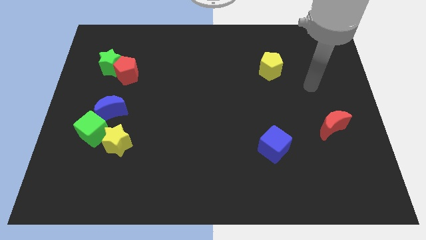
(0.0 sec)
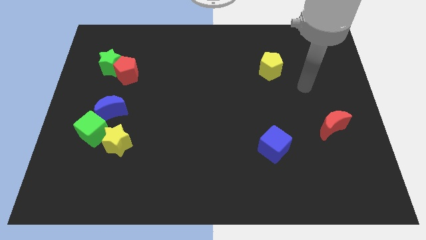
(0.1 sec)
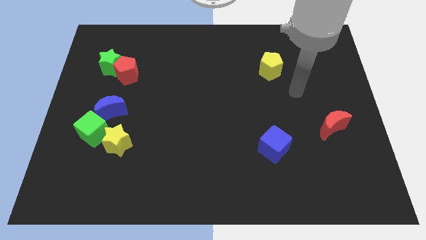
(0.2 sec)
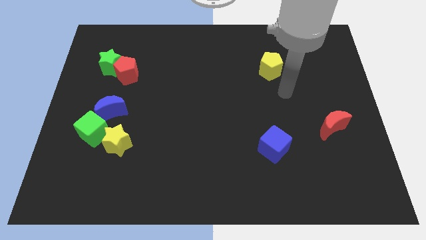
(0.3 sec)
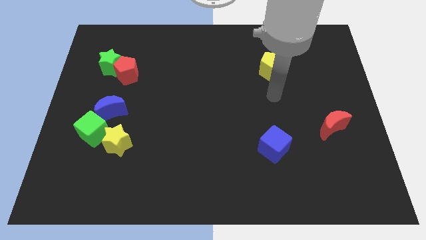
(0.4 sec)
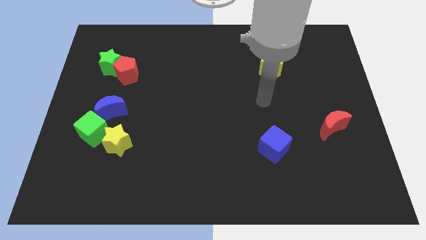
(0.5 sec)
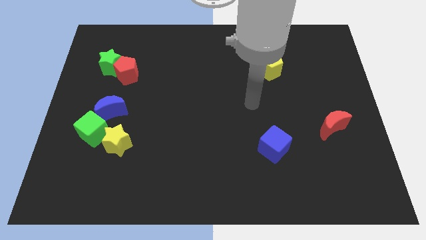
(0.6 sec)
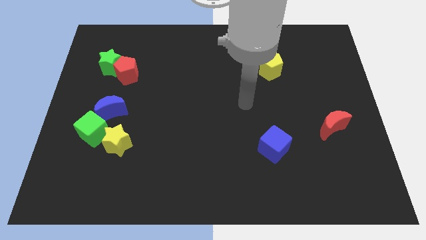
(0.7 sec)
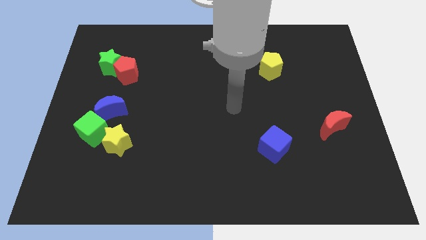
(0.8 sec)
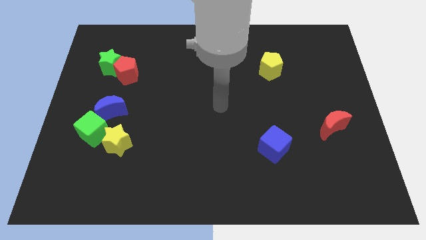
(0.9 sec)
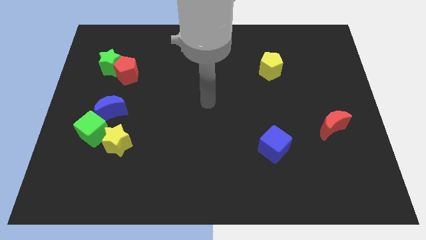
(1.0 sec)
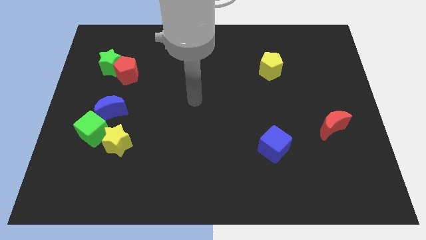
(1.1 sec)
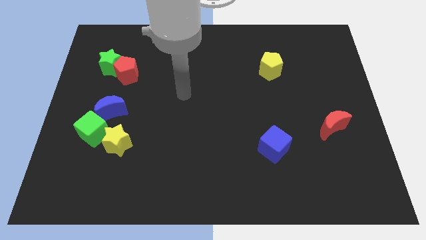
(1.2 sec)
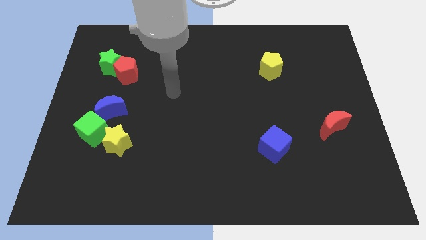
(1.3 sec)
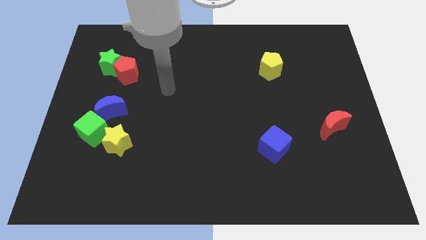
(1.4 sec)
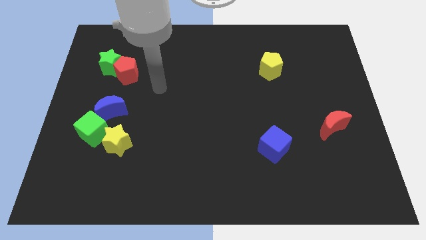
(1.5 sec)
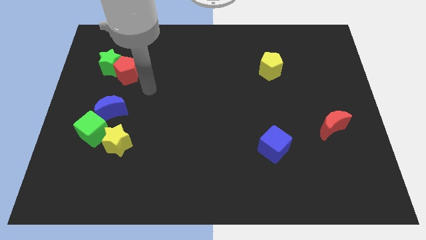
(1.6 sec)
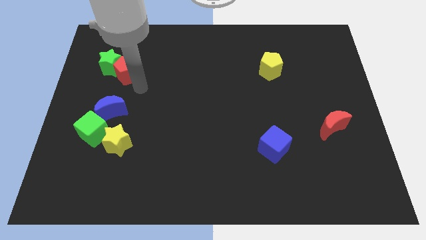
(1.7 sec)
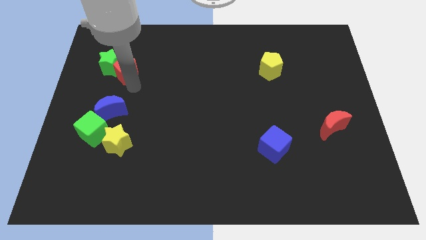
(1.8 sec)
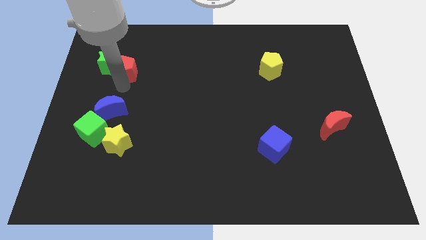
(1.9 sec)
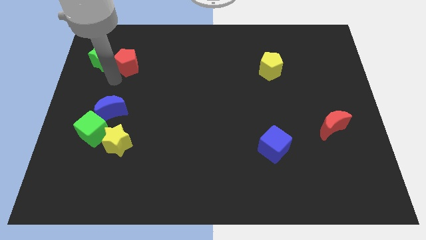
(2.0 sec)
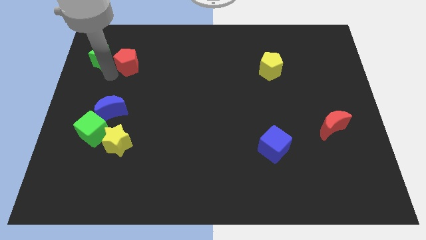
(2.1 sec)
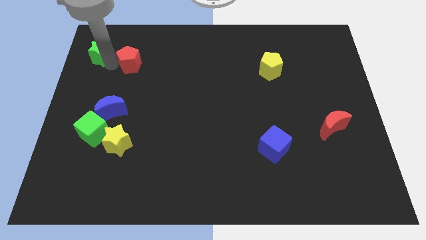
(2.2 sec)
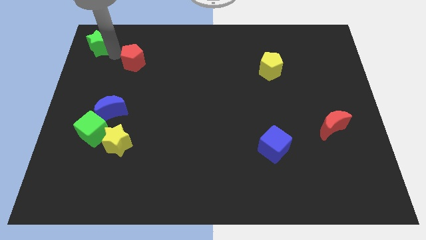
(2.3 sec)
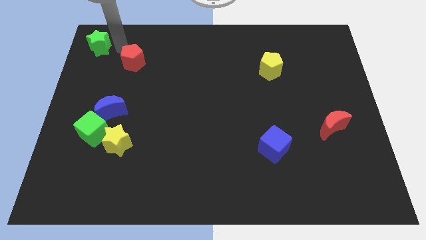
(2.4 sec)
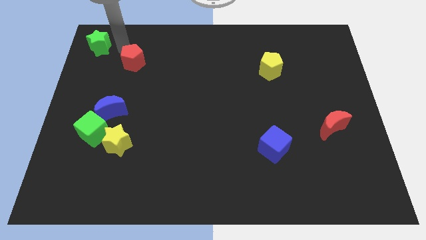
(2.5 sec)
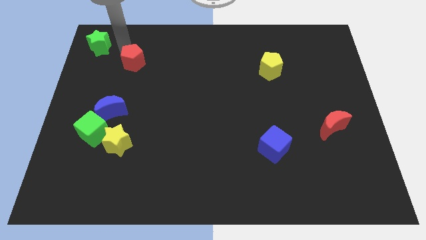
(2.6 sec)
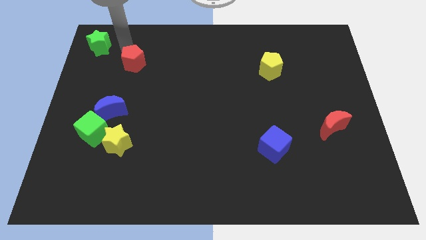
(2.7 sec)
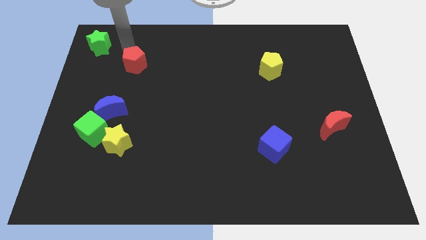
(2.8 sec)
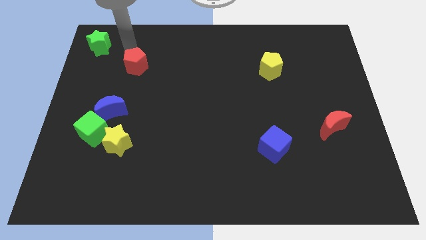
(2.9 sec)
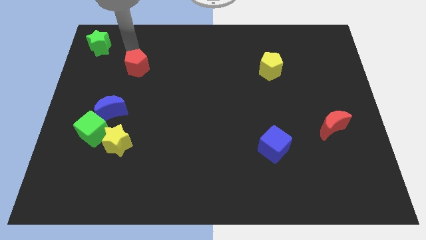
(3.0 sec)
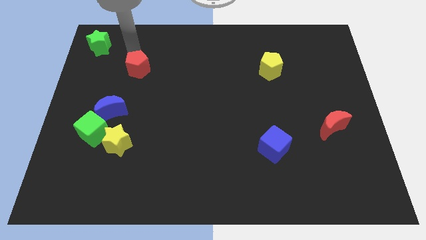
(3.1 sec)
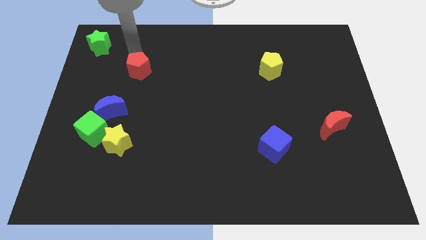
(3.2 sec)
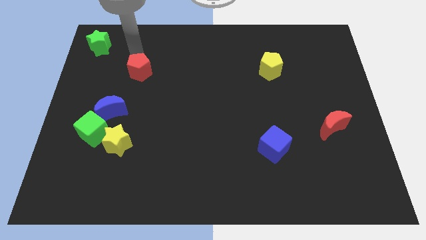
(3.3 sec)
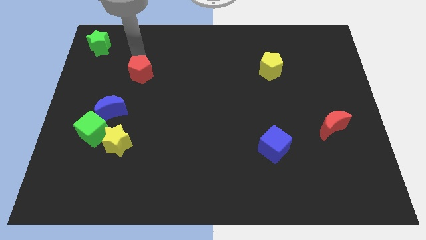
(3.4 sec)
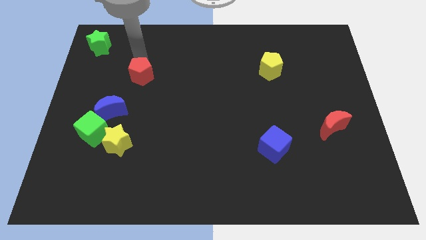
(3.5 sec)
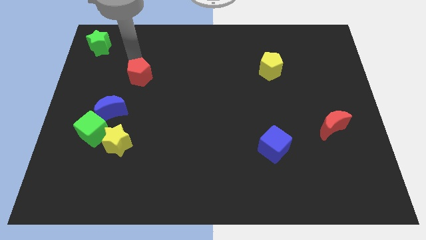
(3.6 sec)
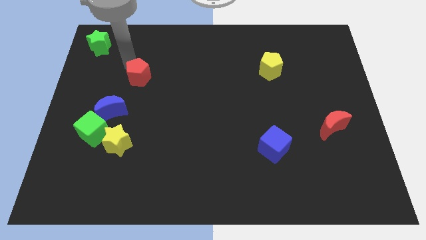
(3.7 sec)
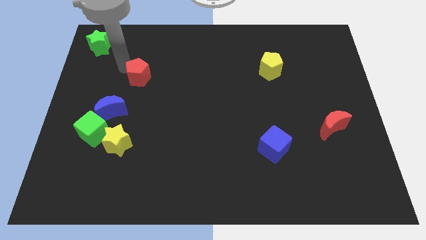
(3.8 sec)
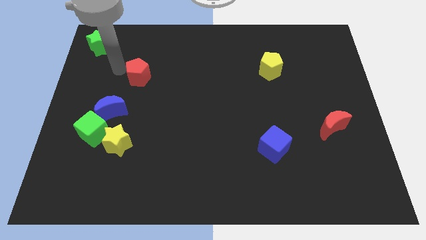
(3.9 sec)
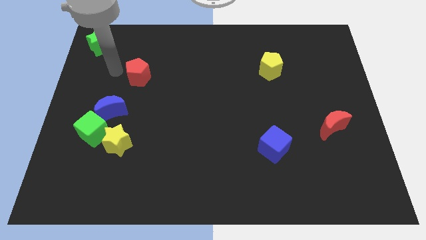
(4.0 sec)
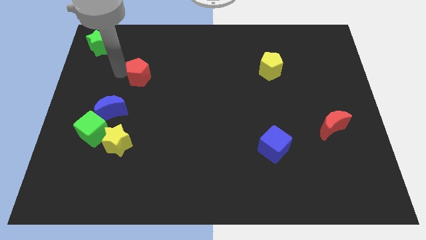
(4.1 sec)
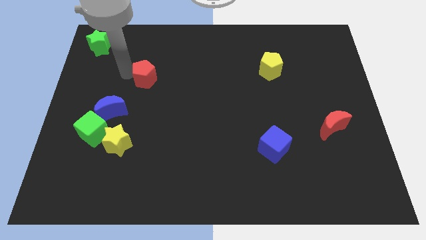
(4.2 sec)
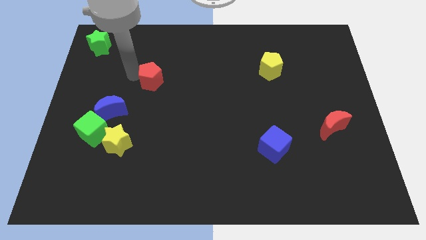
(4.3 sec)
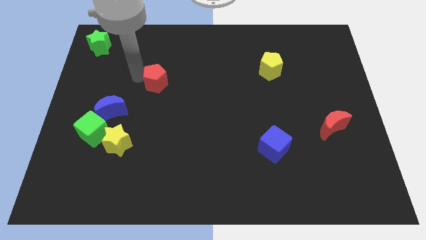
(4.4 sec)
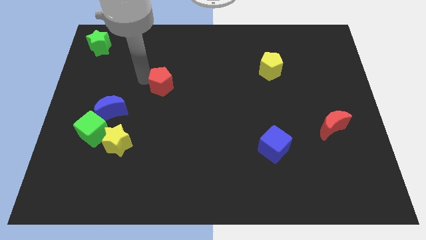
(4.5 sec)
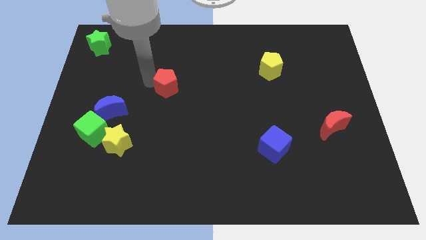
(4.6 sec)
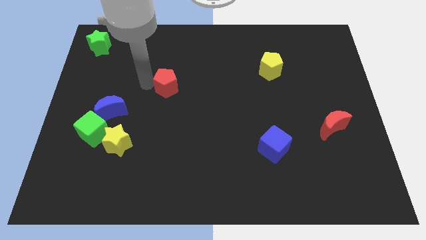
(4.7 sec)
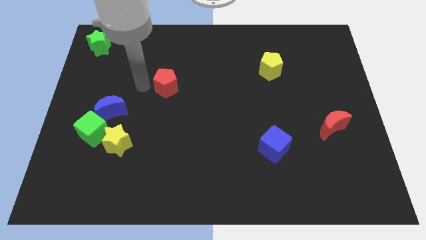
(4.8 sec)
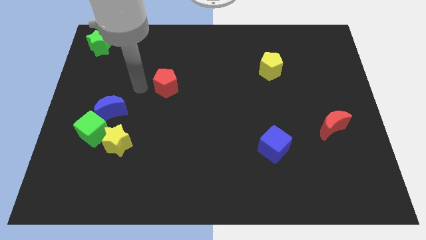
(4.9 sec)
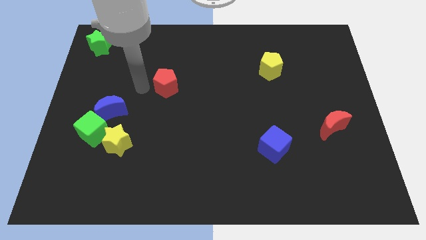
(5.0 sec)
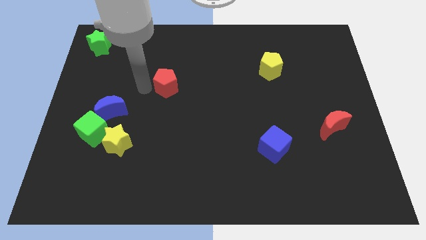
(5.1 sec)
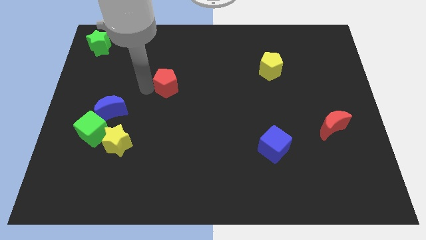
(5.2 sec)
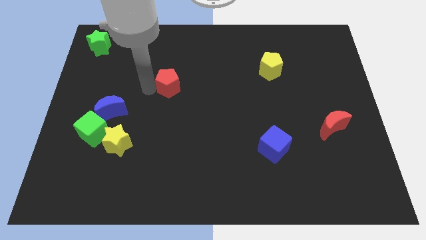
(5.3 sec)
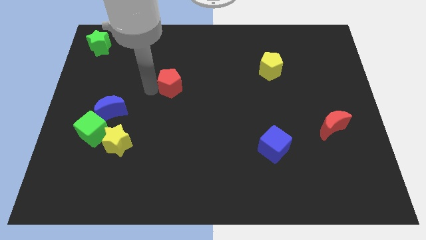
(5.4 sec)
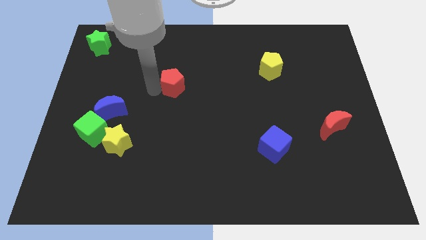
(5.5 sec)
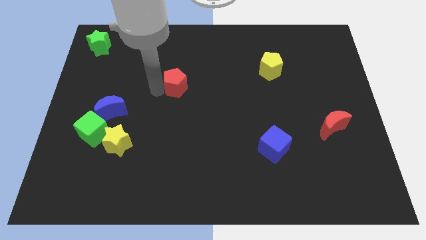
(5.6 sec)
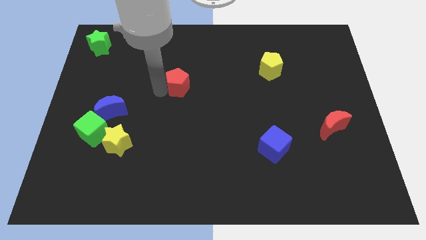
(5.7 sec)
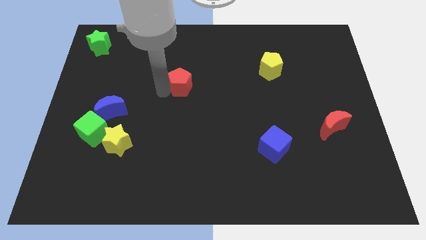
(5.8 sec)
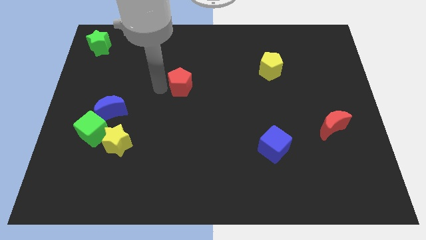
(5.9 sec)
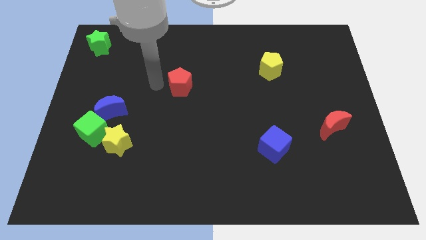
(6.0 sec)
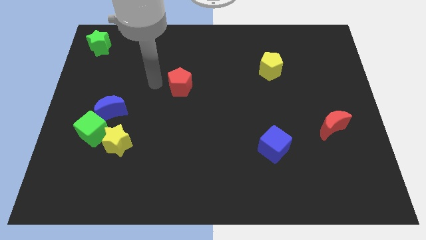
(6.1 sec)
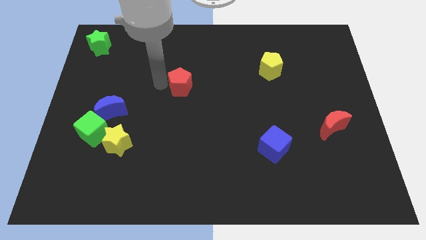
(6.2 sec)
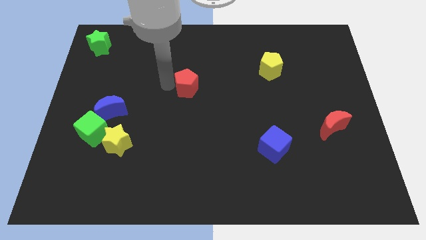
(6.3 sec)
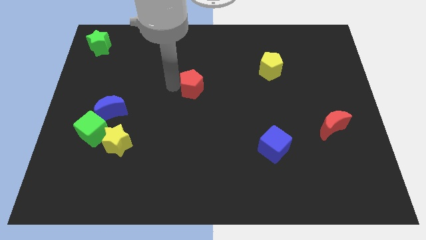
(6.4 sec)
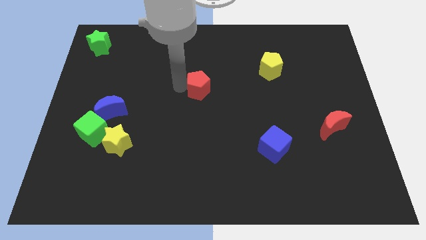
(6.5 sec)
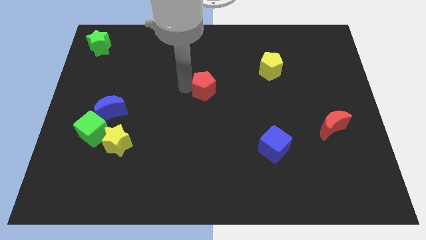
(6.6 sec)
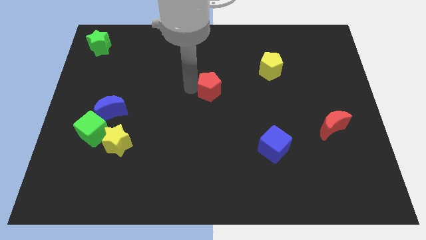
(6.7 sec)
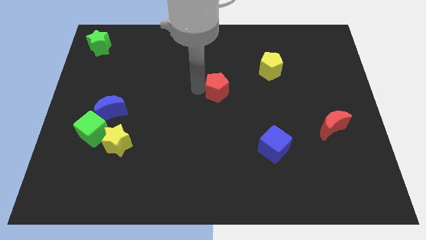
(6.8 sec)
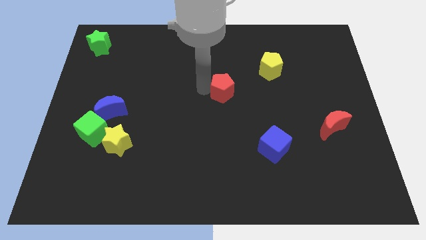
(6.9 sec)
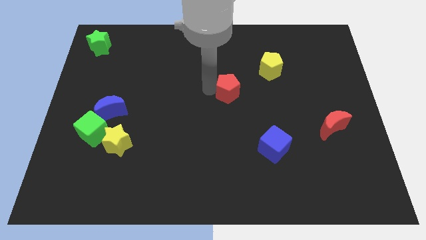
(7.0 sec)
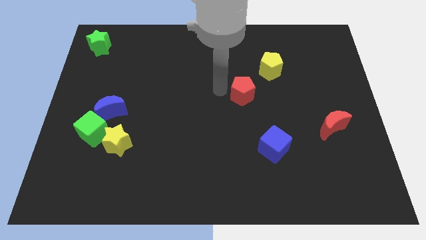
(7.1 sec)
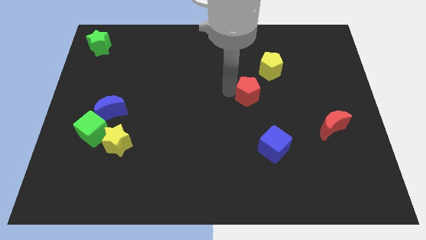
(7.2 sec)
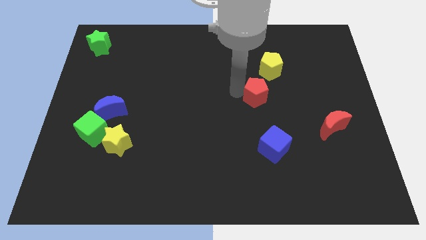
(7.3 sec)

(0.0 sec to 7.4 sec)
slide the red pentagon to the top of the blue cube

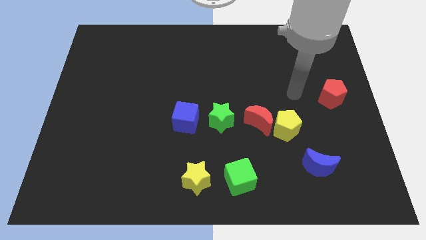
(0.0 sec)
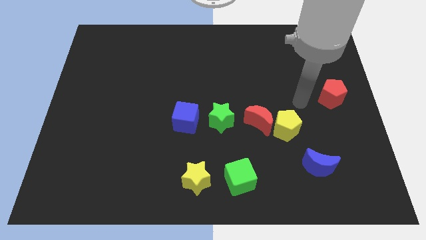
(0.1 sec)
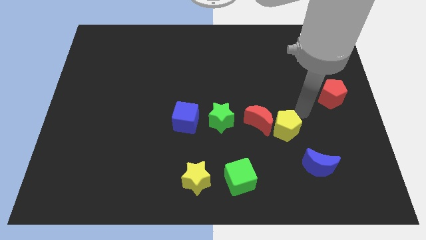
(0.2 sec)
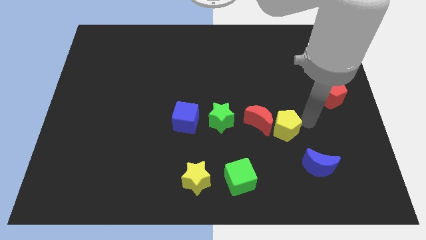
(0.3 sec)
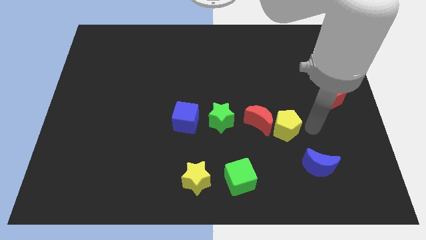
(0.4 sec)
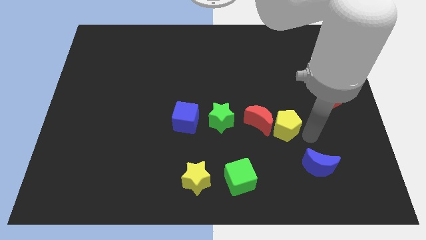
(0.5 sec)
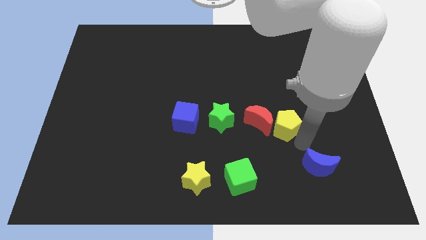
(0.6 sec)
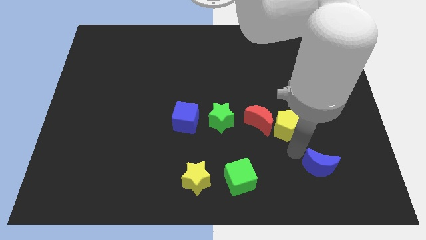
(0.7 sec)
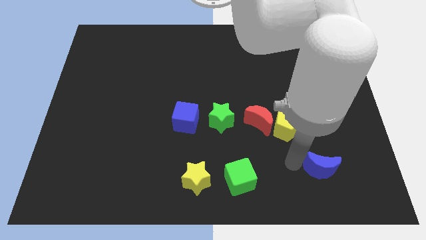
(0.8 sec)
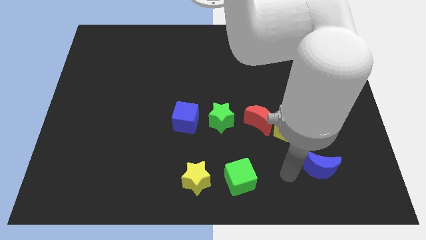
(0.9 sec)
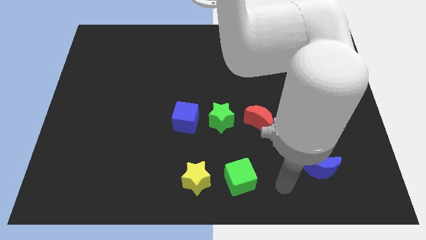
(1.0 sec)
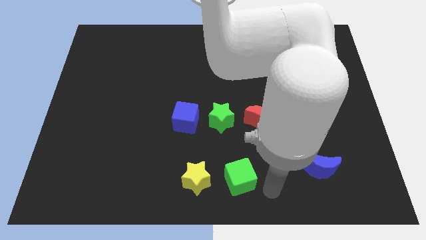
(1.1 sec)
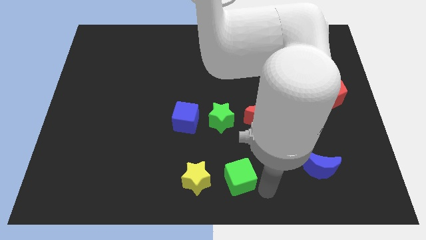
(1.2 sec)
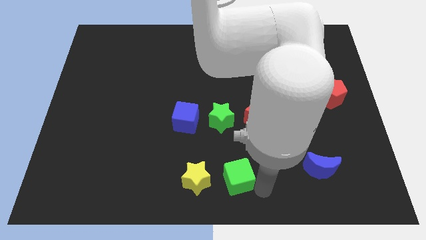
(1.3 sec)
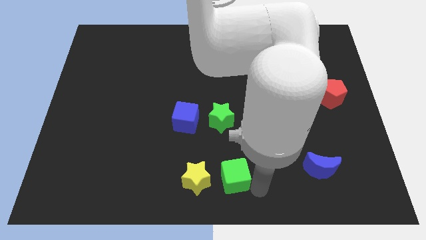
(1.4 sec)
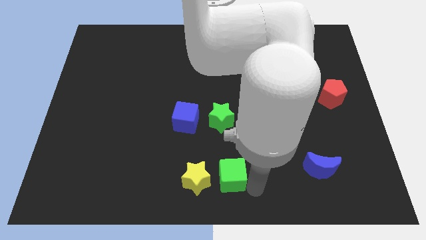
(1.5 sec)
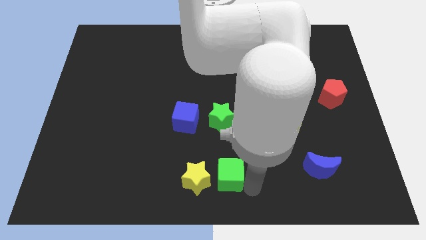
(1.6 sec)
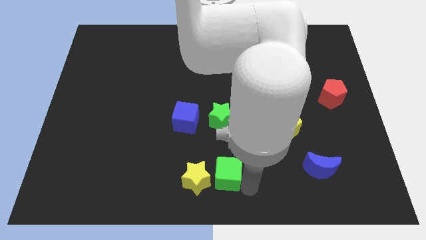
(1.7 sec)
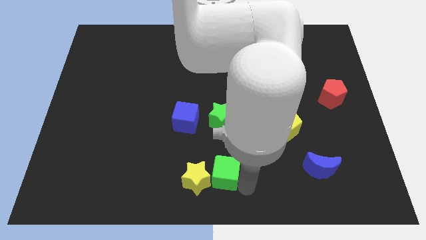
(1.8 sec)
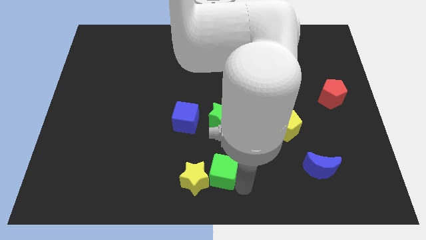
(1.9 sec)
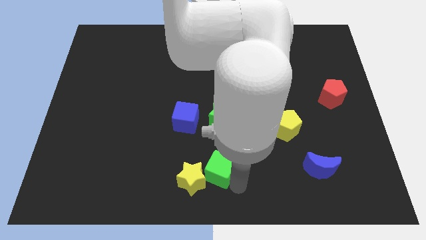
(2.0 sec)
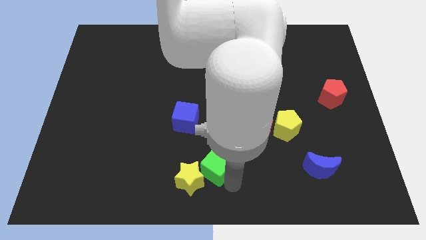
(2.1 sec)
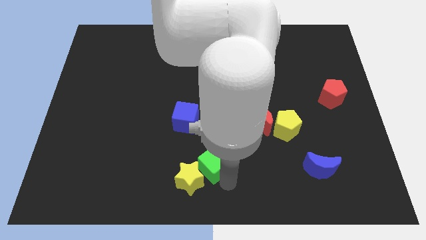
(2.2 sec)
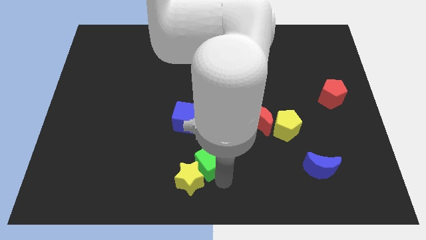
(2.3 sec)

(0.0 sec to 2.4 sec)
move the green cube to the top side of the yellow star
